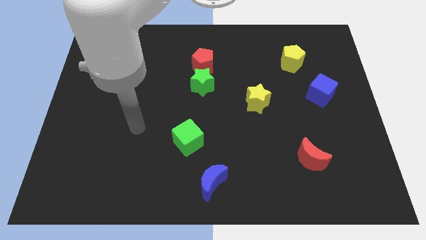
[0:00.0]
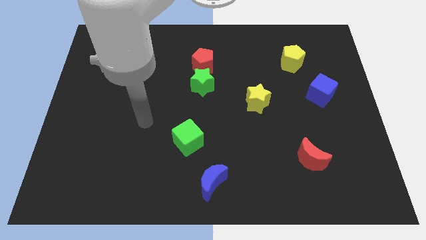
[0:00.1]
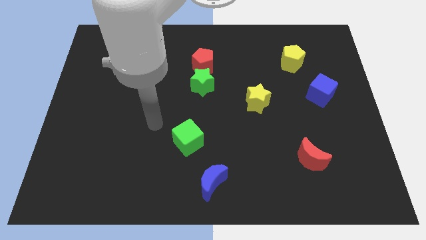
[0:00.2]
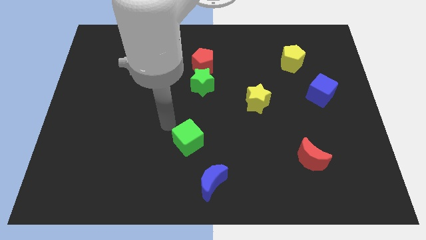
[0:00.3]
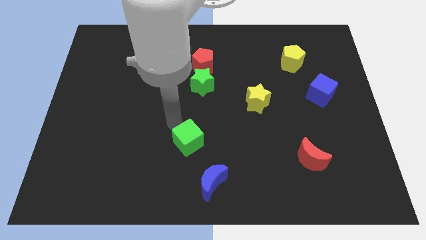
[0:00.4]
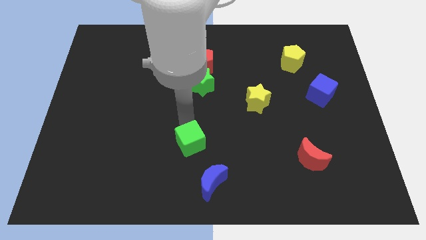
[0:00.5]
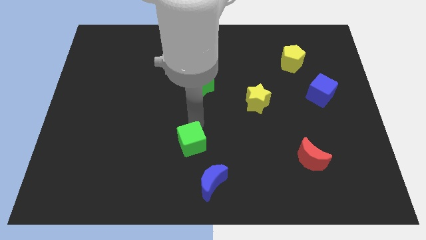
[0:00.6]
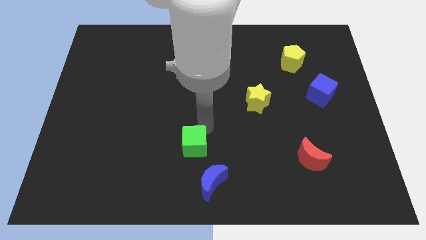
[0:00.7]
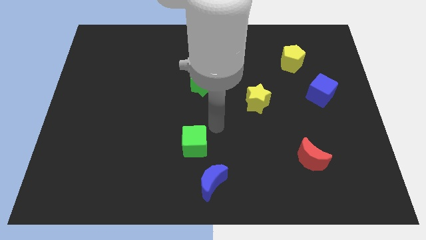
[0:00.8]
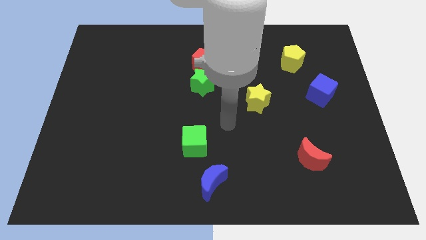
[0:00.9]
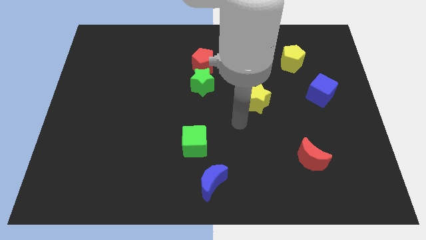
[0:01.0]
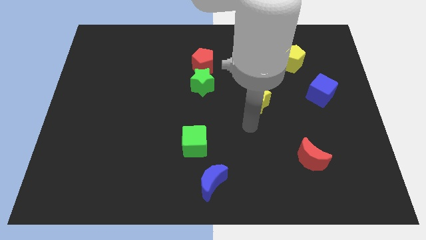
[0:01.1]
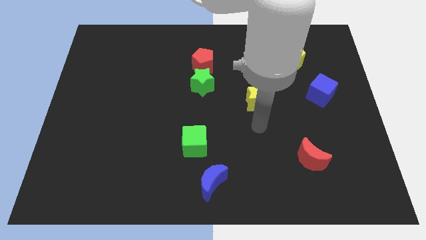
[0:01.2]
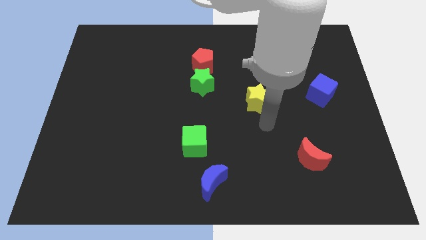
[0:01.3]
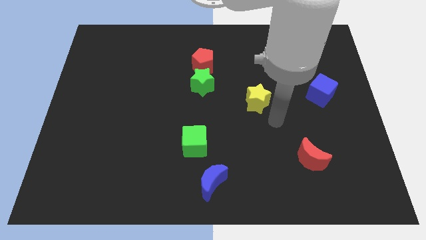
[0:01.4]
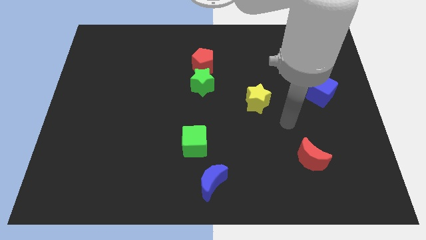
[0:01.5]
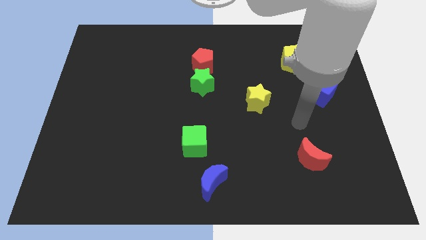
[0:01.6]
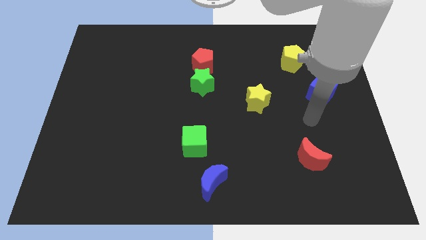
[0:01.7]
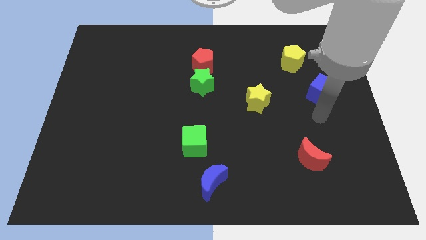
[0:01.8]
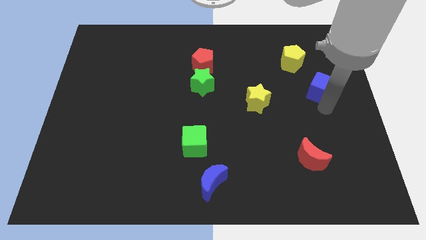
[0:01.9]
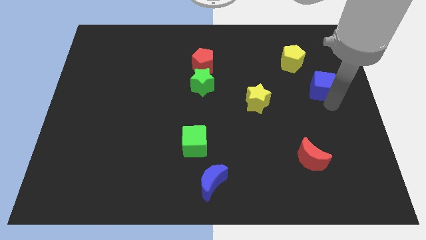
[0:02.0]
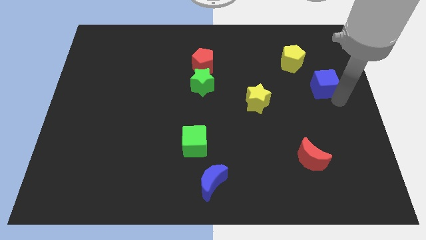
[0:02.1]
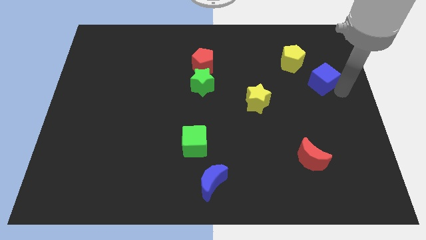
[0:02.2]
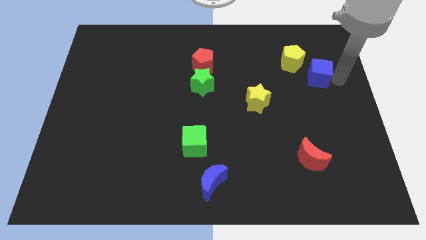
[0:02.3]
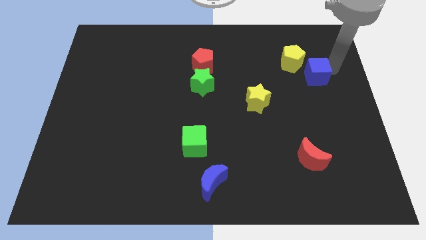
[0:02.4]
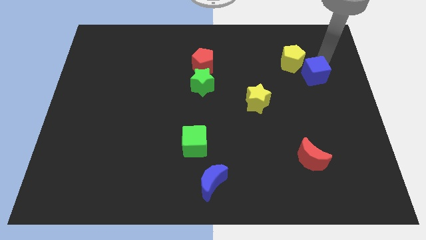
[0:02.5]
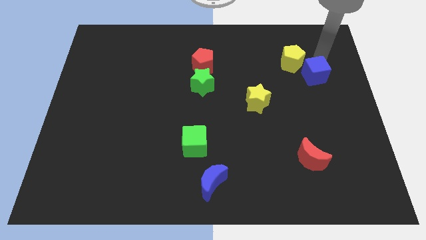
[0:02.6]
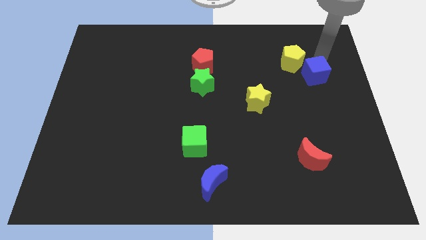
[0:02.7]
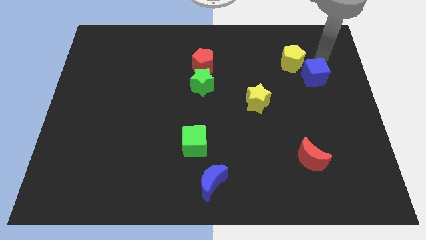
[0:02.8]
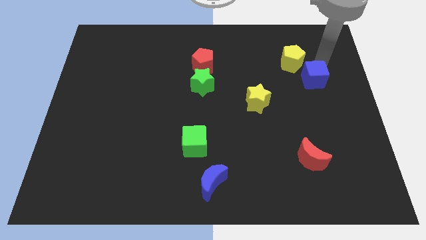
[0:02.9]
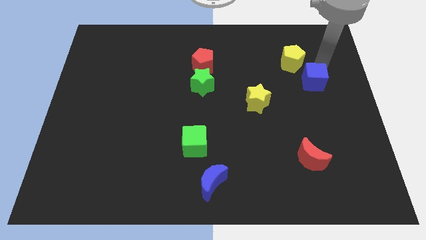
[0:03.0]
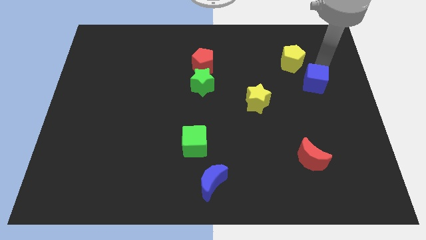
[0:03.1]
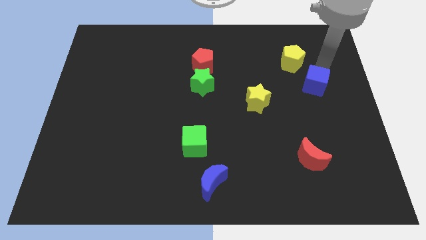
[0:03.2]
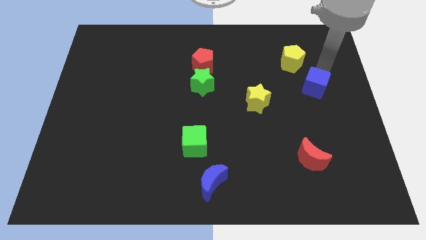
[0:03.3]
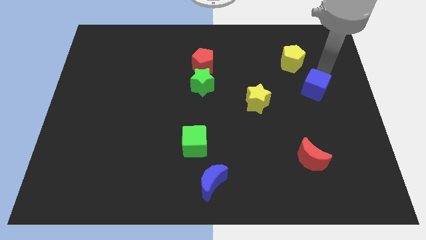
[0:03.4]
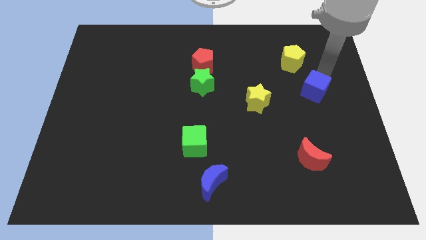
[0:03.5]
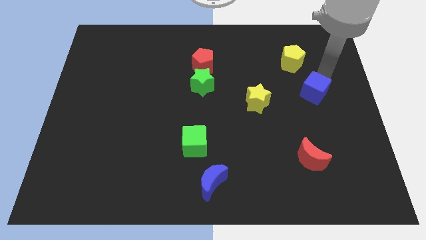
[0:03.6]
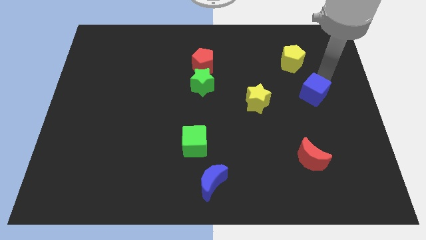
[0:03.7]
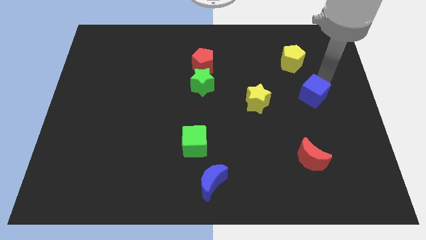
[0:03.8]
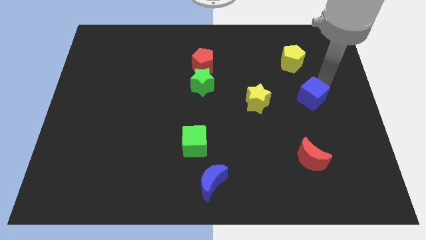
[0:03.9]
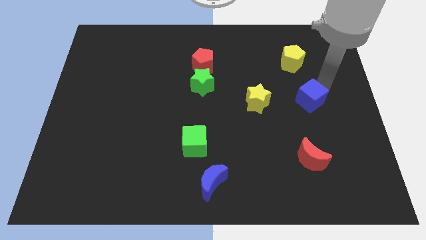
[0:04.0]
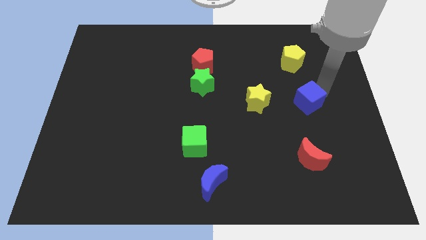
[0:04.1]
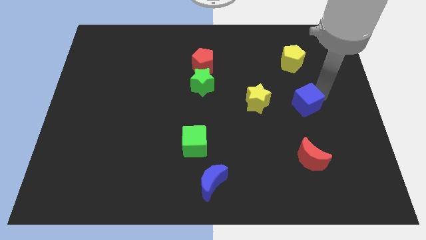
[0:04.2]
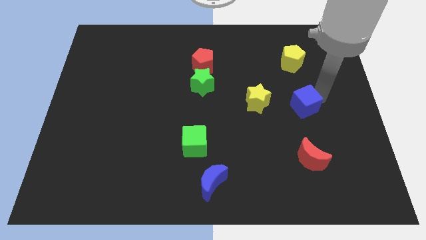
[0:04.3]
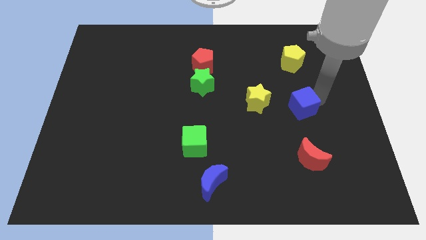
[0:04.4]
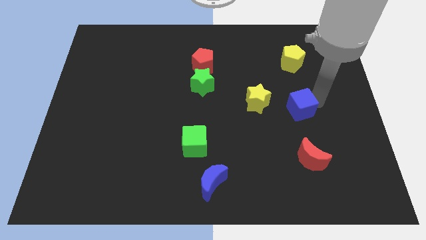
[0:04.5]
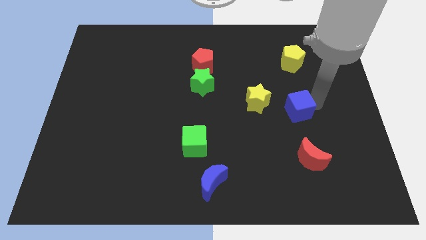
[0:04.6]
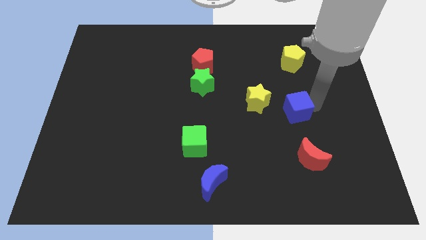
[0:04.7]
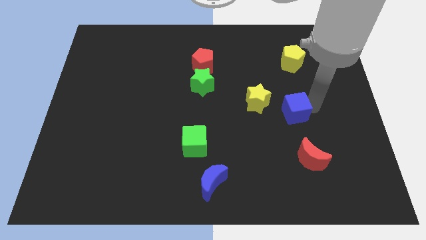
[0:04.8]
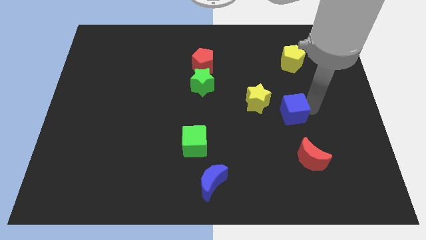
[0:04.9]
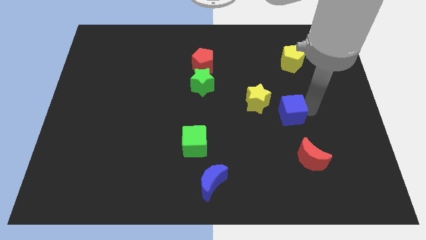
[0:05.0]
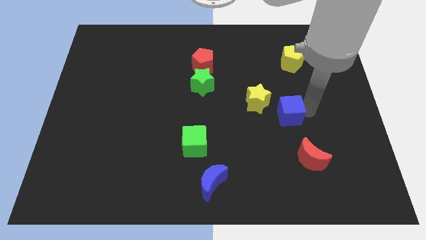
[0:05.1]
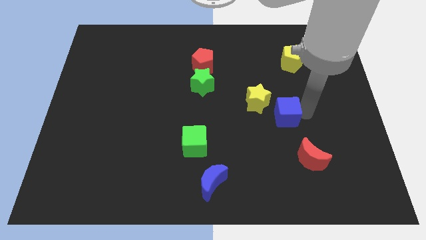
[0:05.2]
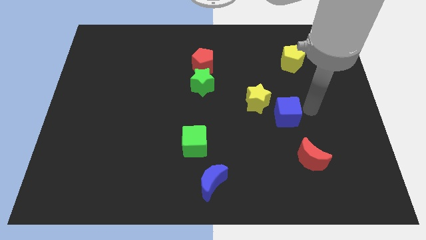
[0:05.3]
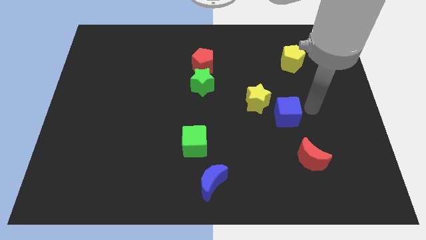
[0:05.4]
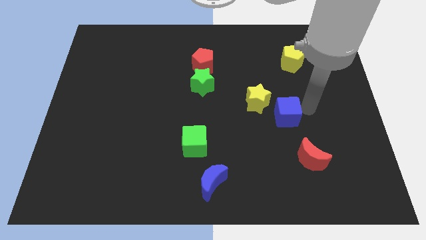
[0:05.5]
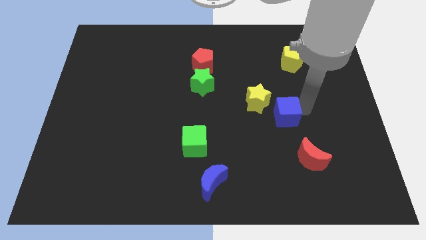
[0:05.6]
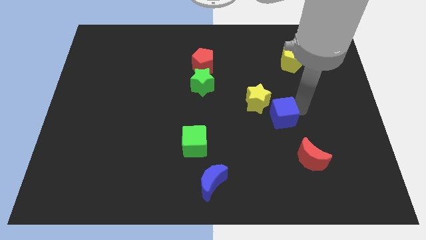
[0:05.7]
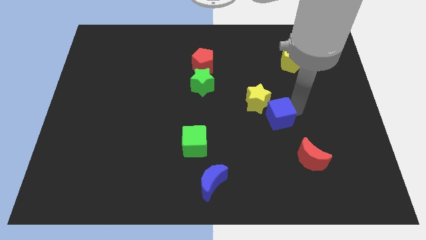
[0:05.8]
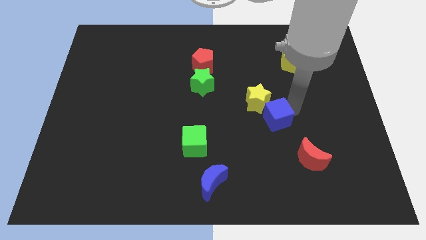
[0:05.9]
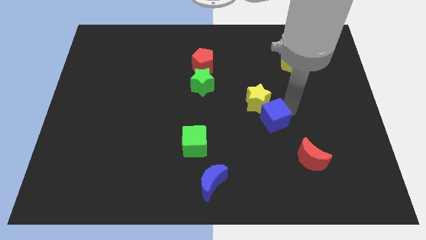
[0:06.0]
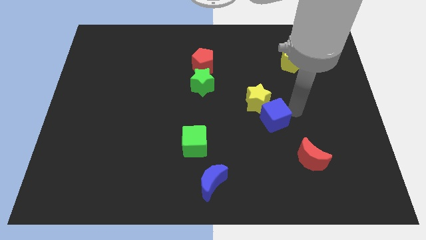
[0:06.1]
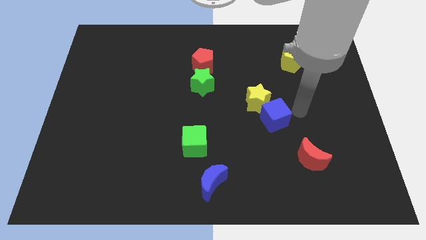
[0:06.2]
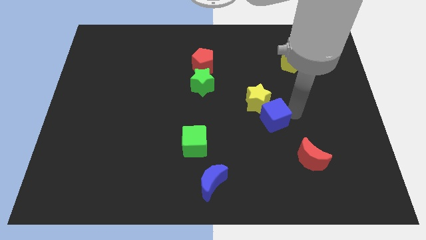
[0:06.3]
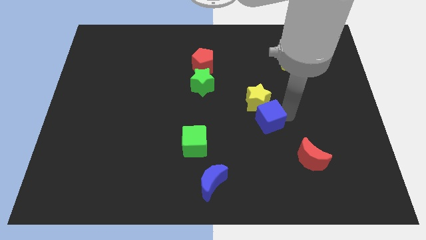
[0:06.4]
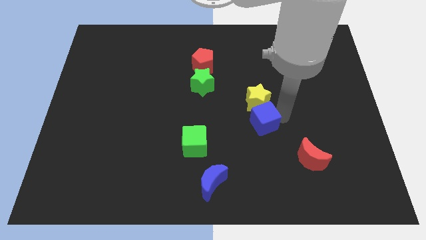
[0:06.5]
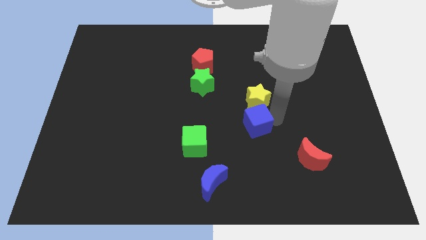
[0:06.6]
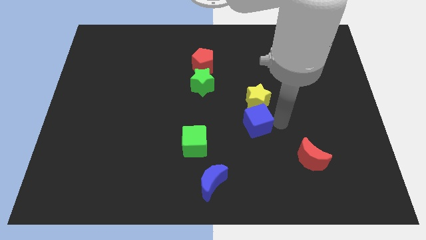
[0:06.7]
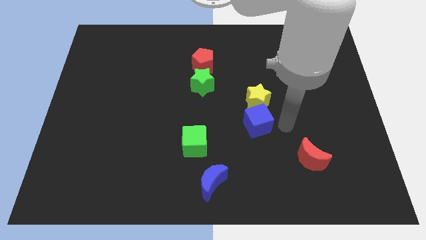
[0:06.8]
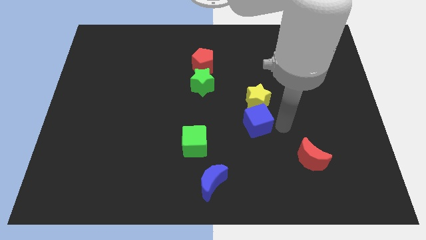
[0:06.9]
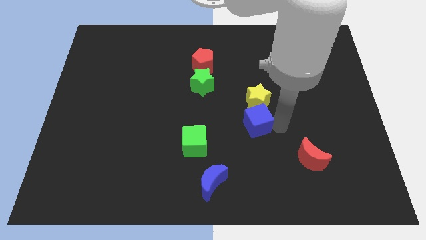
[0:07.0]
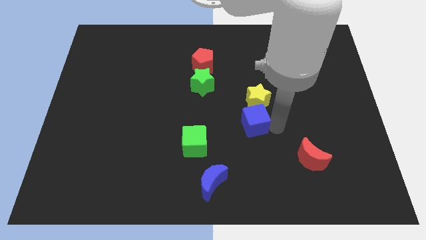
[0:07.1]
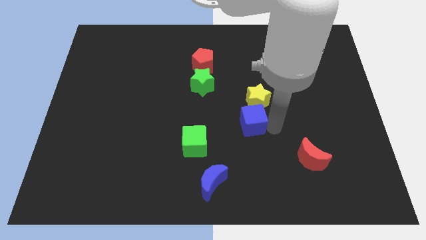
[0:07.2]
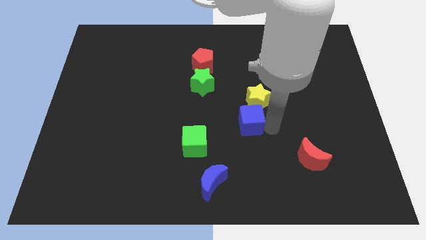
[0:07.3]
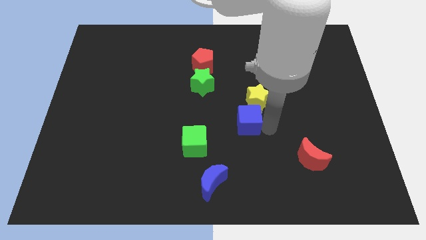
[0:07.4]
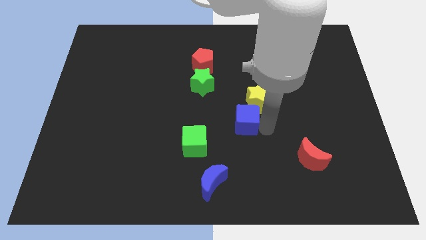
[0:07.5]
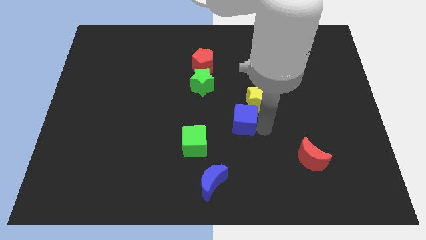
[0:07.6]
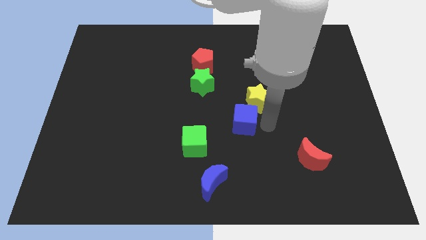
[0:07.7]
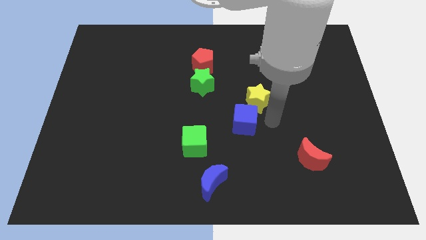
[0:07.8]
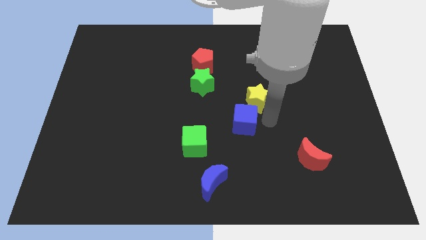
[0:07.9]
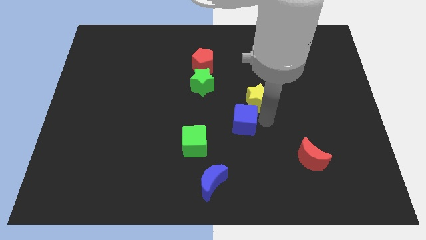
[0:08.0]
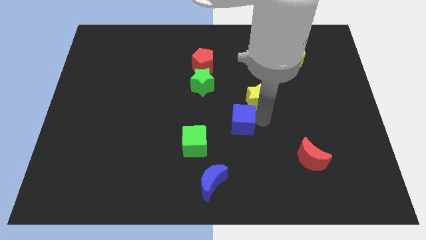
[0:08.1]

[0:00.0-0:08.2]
move the blue cube diagonally up and to the right of the green cube
